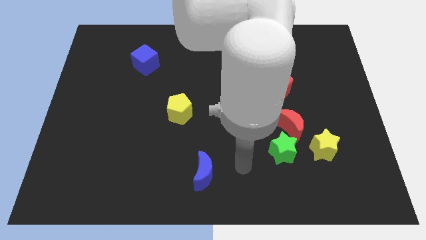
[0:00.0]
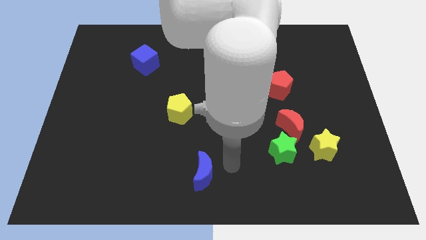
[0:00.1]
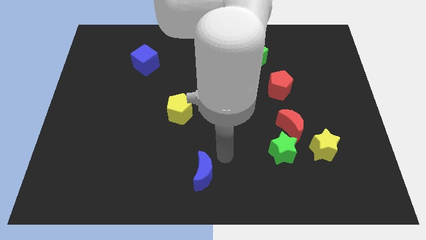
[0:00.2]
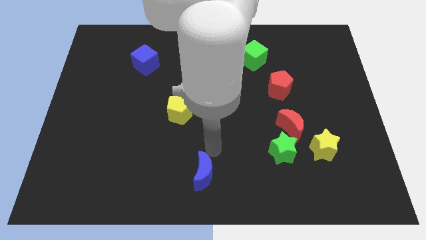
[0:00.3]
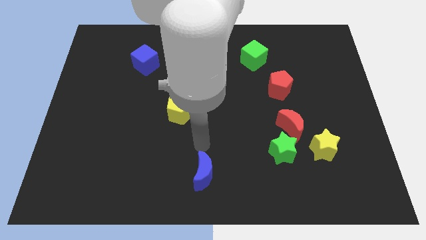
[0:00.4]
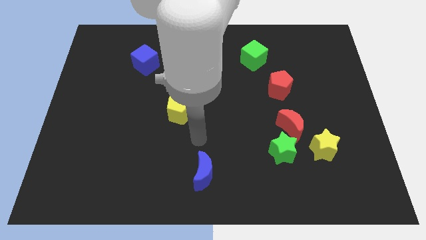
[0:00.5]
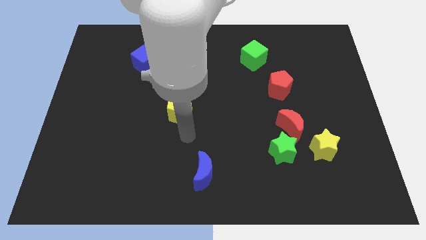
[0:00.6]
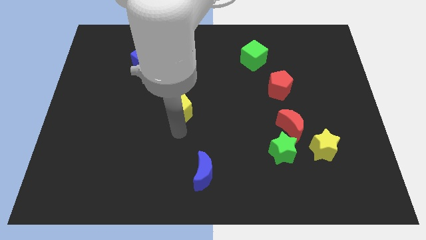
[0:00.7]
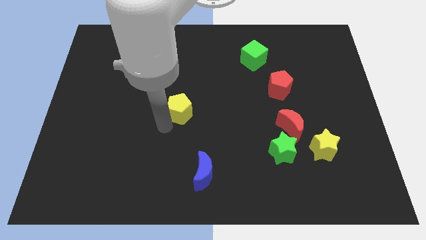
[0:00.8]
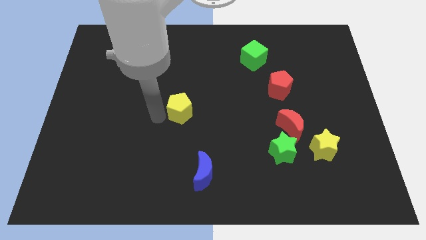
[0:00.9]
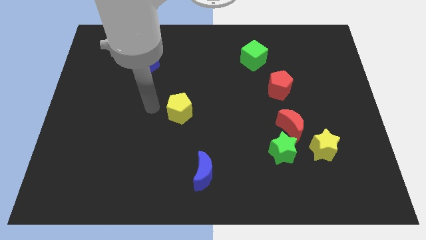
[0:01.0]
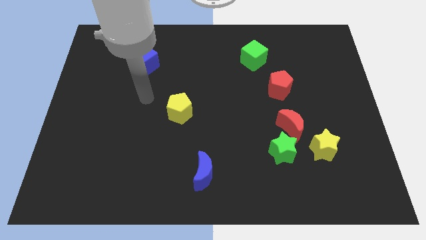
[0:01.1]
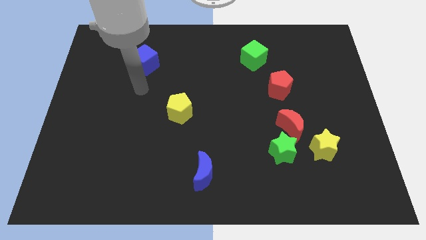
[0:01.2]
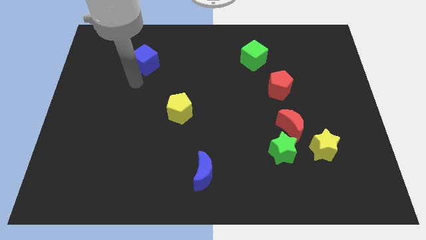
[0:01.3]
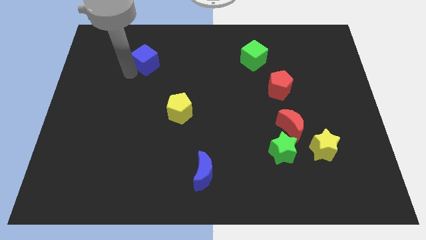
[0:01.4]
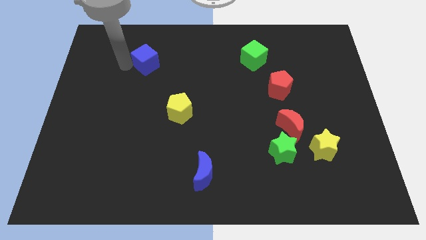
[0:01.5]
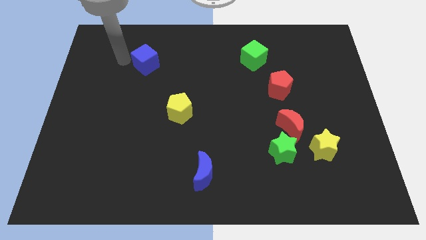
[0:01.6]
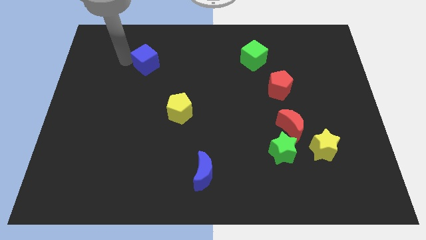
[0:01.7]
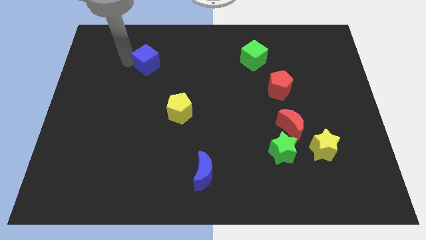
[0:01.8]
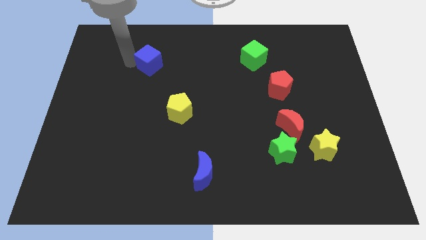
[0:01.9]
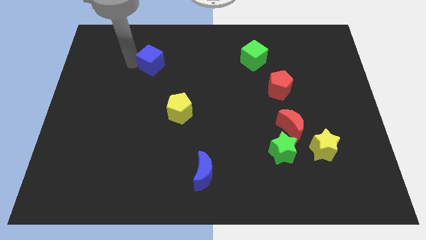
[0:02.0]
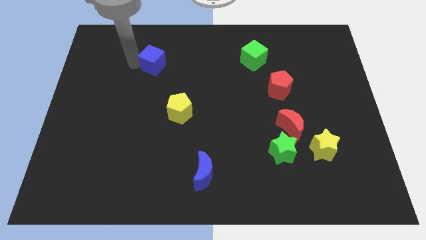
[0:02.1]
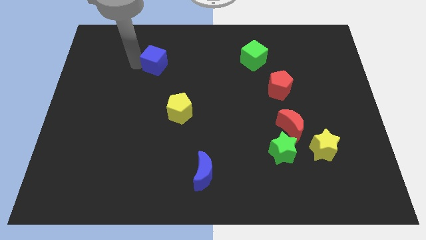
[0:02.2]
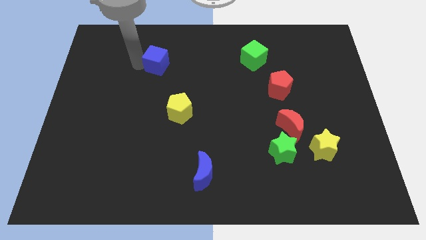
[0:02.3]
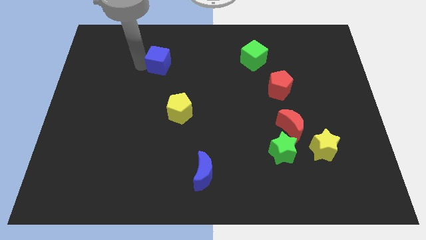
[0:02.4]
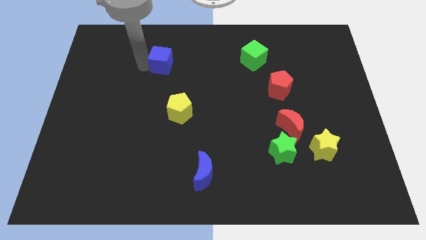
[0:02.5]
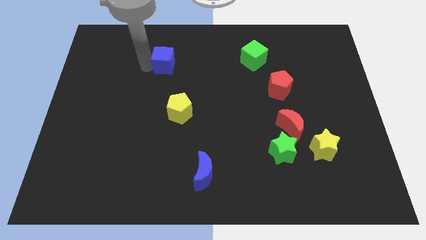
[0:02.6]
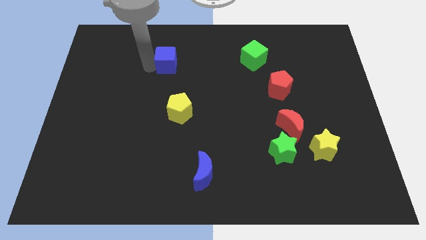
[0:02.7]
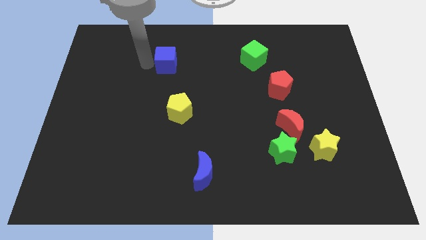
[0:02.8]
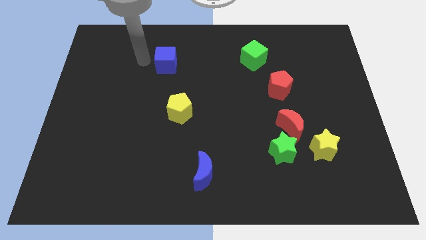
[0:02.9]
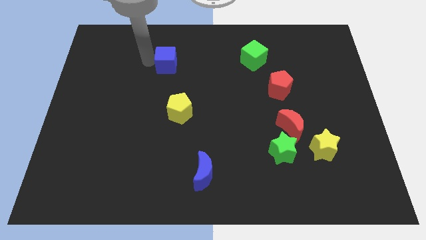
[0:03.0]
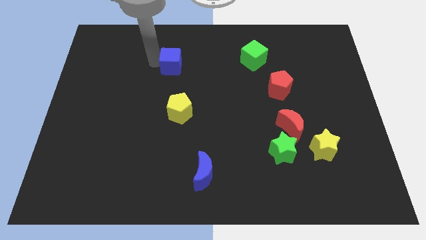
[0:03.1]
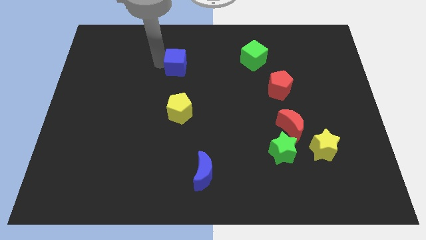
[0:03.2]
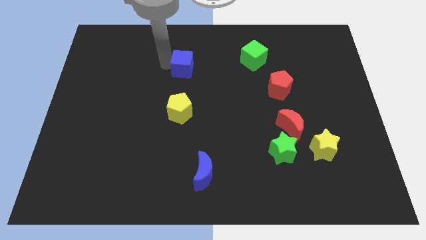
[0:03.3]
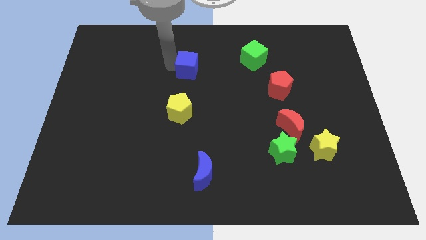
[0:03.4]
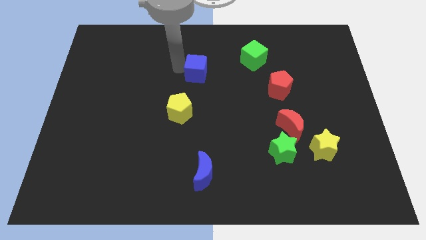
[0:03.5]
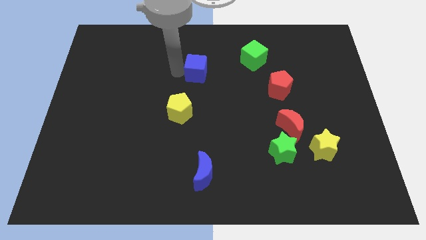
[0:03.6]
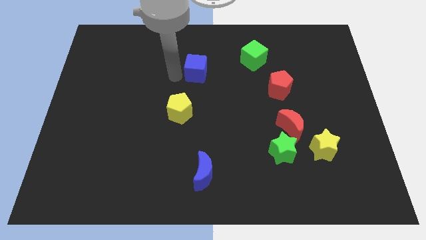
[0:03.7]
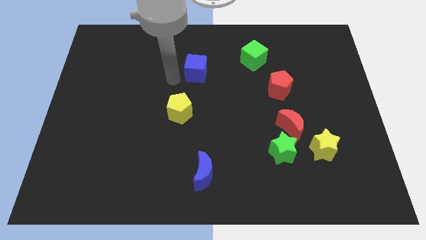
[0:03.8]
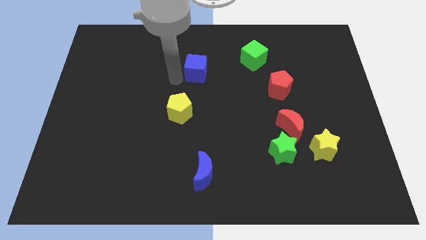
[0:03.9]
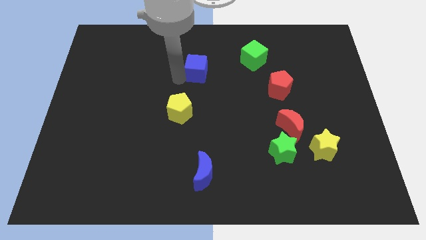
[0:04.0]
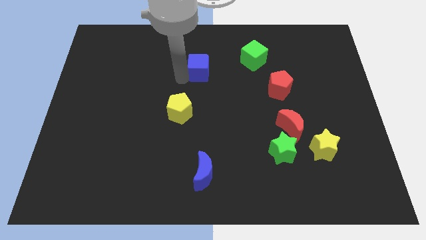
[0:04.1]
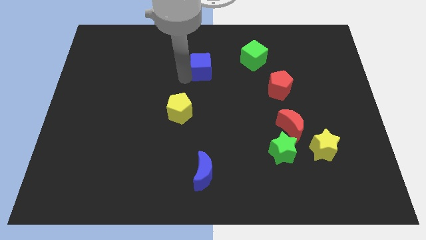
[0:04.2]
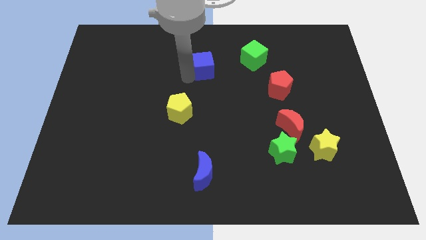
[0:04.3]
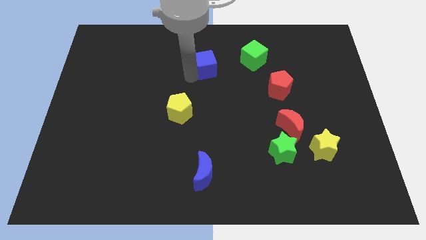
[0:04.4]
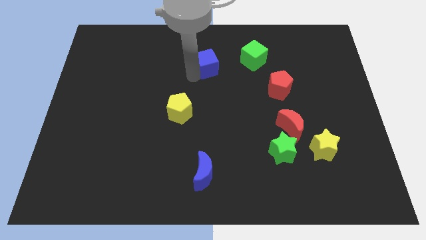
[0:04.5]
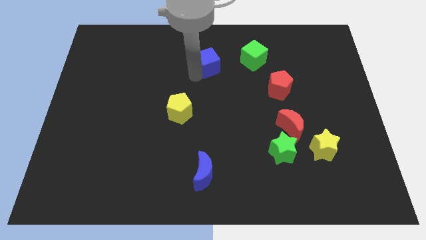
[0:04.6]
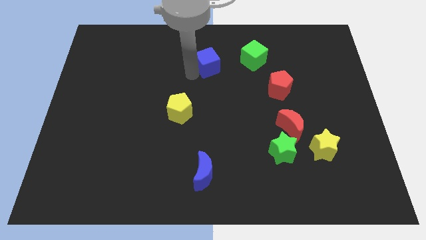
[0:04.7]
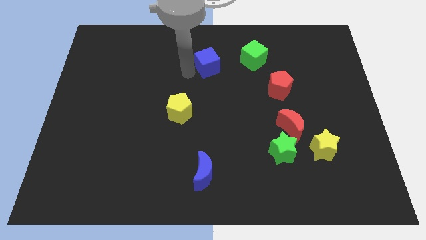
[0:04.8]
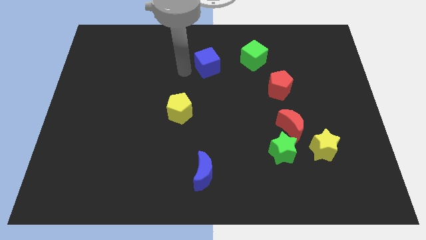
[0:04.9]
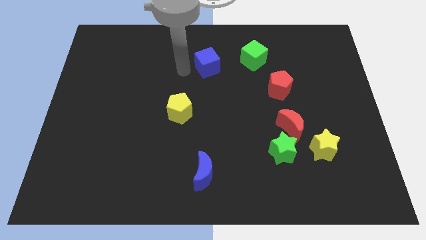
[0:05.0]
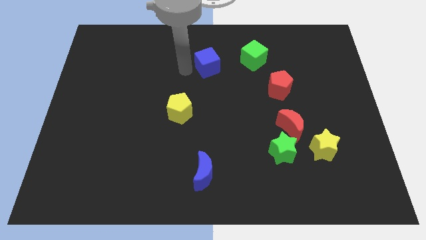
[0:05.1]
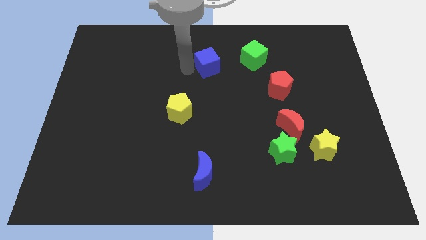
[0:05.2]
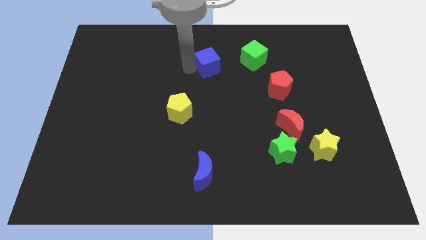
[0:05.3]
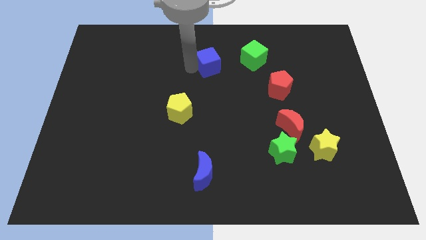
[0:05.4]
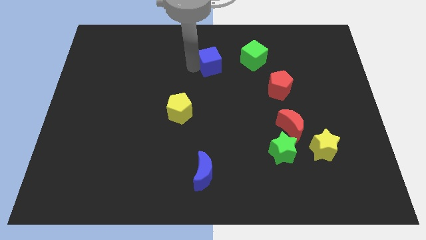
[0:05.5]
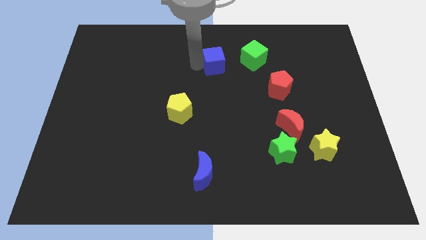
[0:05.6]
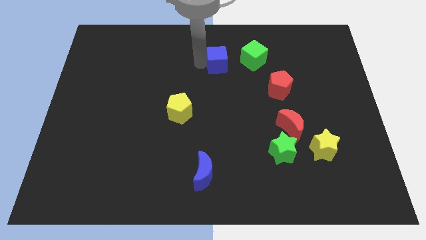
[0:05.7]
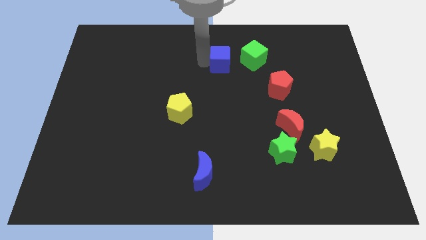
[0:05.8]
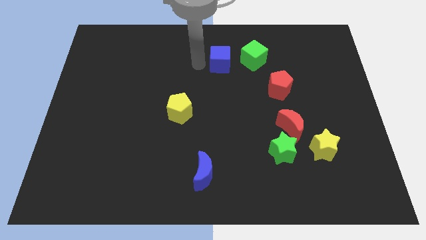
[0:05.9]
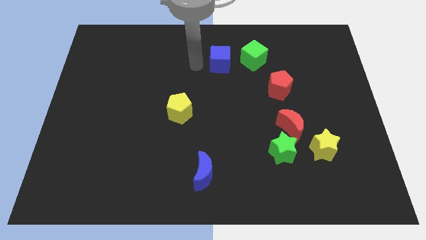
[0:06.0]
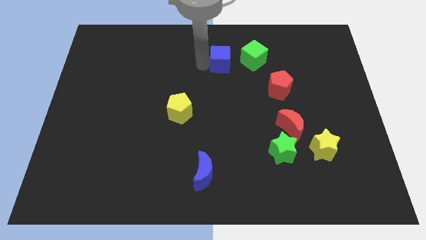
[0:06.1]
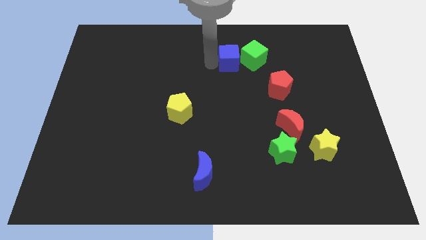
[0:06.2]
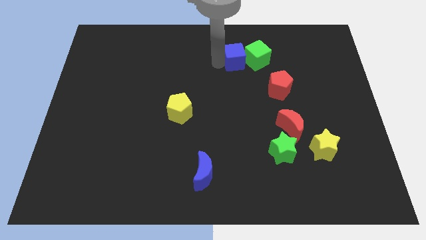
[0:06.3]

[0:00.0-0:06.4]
slide the blue cube towards the green cube
